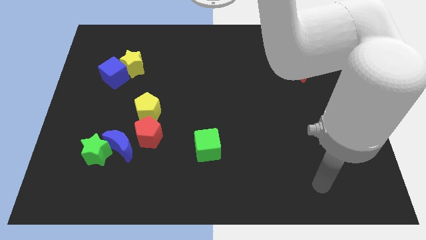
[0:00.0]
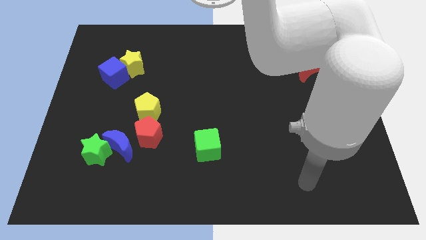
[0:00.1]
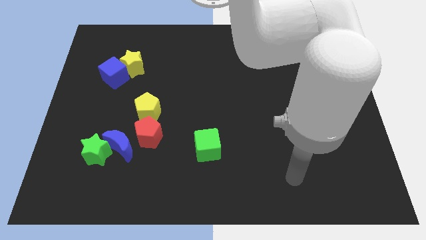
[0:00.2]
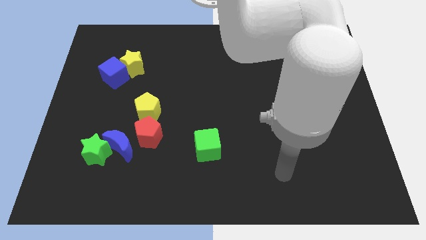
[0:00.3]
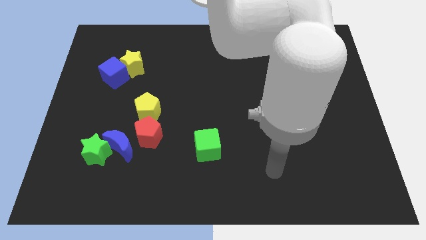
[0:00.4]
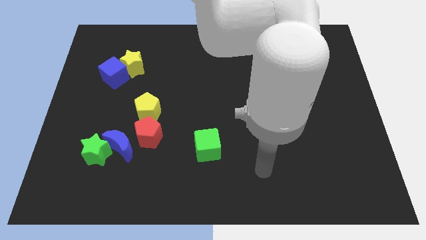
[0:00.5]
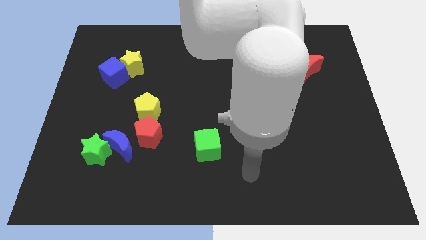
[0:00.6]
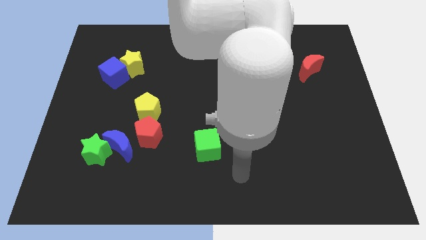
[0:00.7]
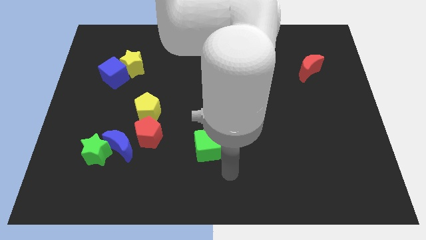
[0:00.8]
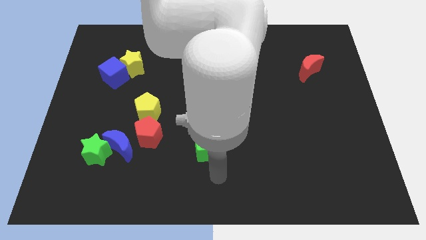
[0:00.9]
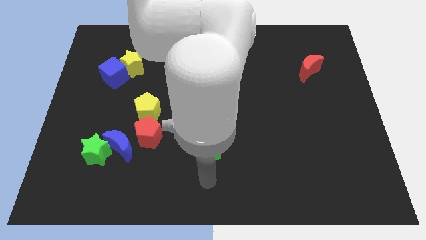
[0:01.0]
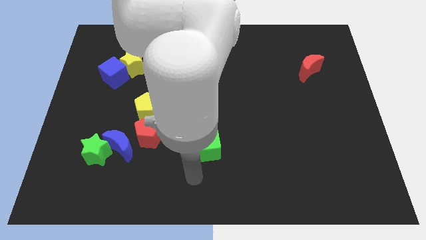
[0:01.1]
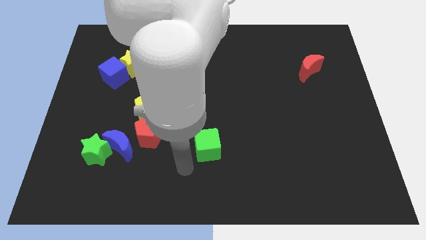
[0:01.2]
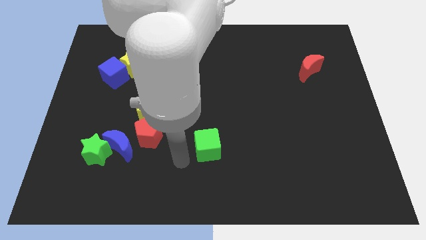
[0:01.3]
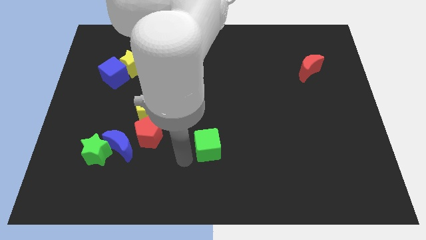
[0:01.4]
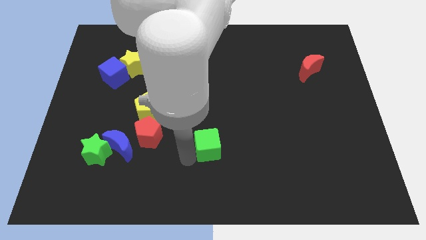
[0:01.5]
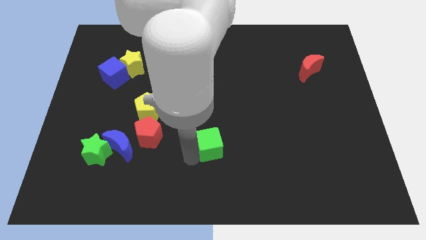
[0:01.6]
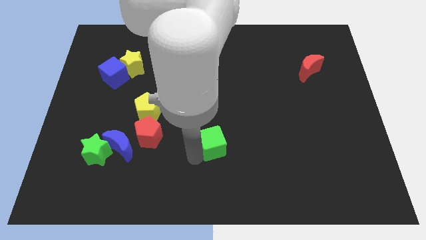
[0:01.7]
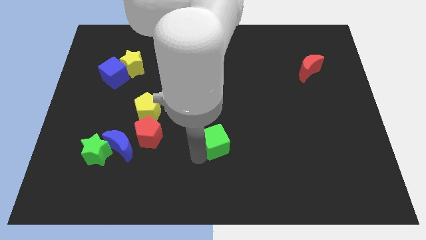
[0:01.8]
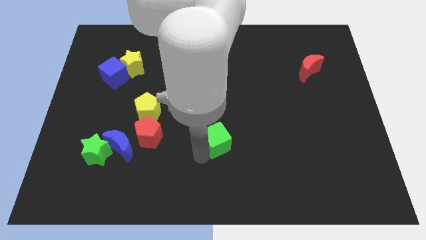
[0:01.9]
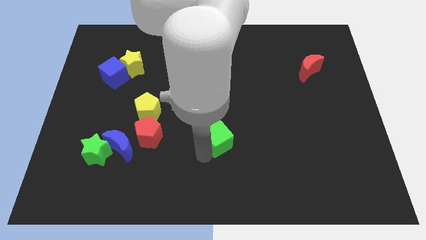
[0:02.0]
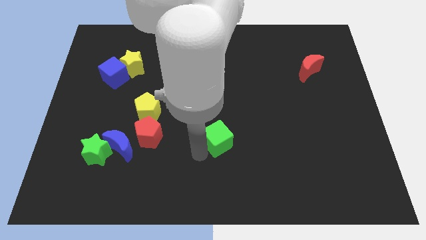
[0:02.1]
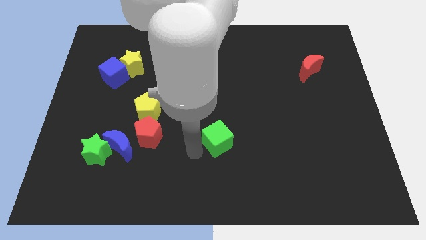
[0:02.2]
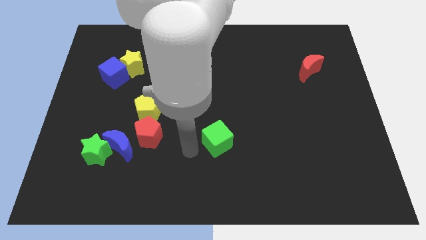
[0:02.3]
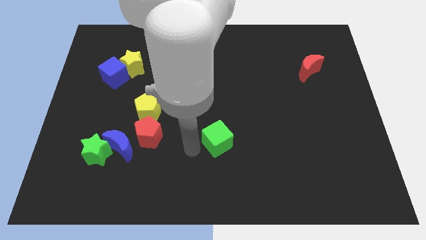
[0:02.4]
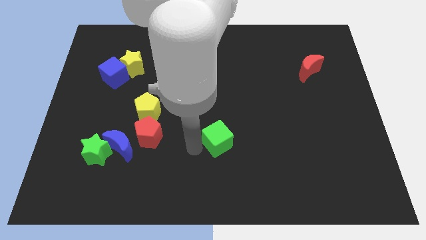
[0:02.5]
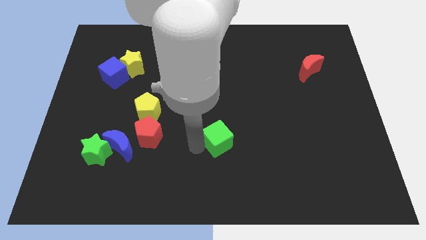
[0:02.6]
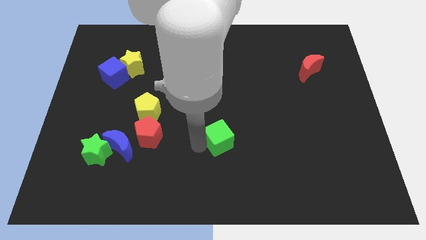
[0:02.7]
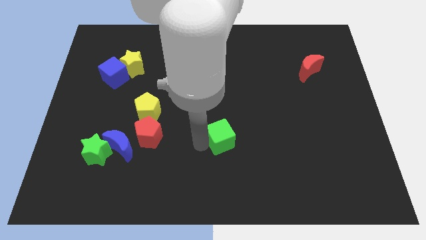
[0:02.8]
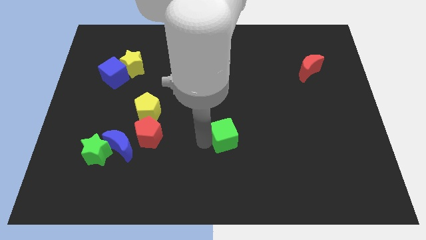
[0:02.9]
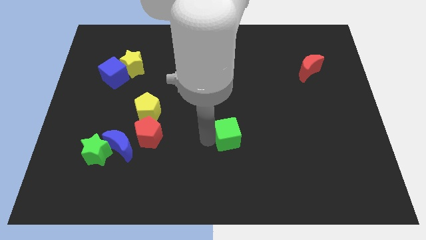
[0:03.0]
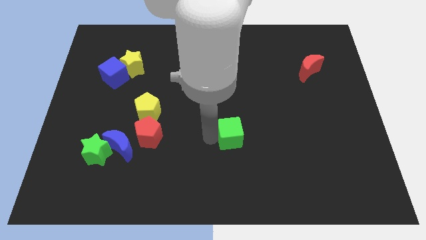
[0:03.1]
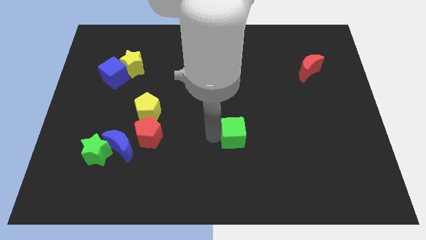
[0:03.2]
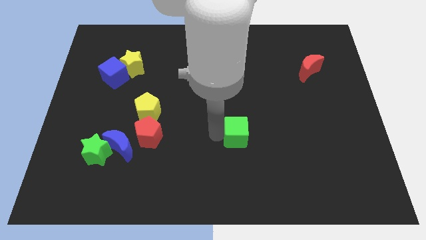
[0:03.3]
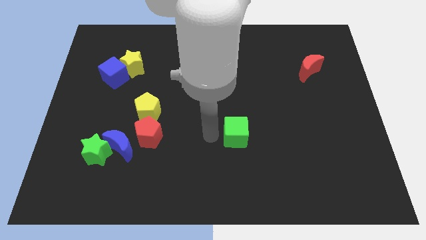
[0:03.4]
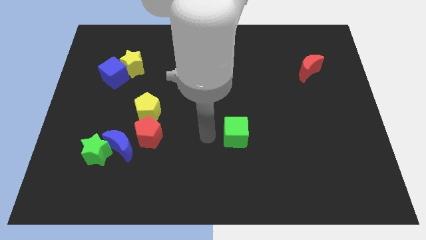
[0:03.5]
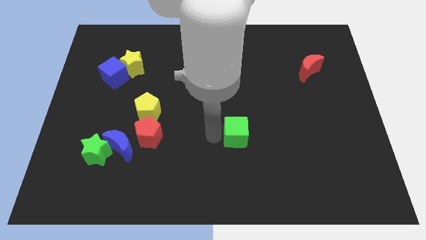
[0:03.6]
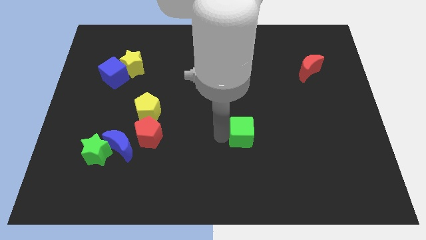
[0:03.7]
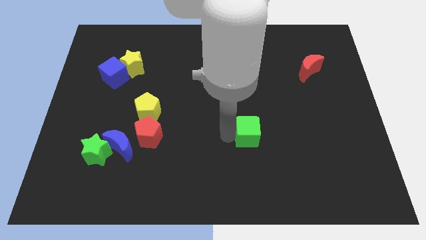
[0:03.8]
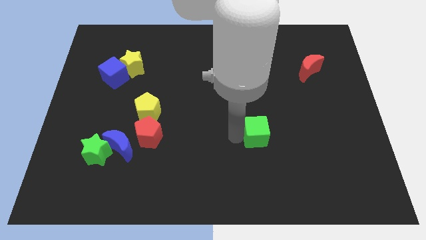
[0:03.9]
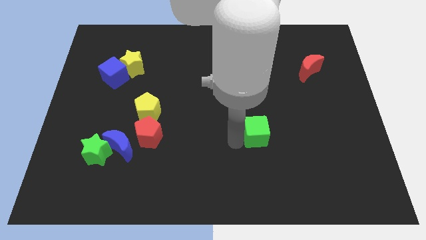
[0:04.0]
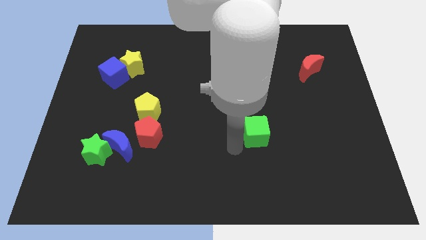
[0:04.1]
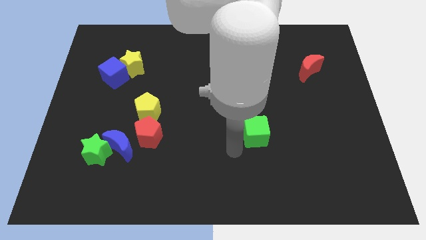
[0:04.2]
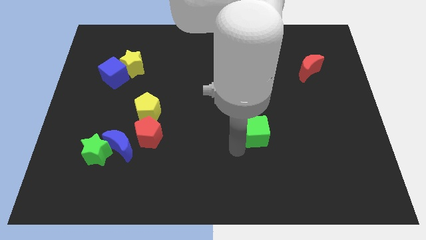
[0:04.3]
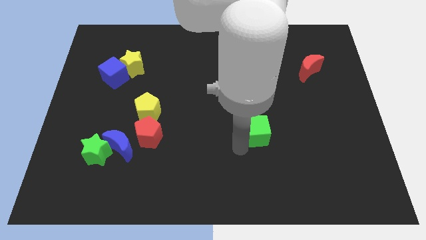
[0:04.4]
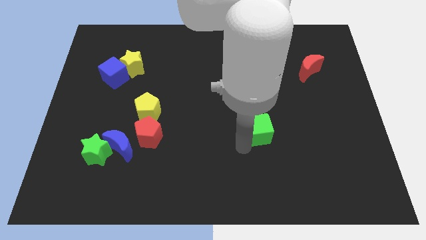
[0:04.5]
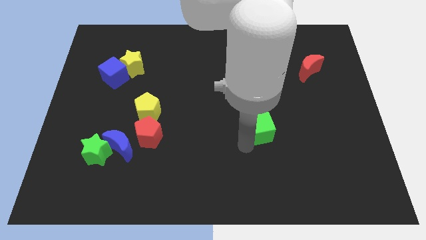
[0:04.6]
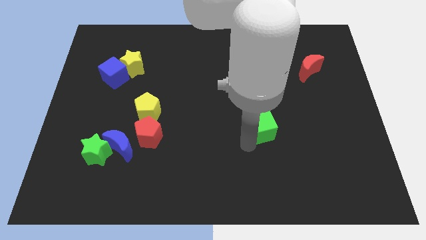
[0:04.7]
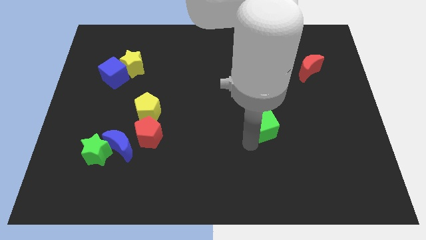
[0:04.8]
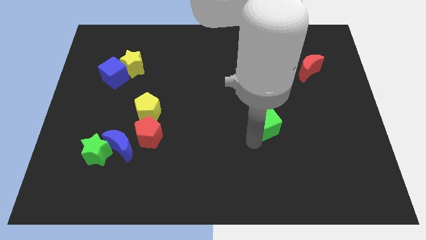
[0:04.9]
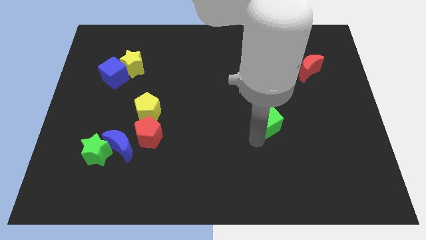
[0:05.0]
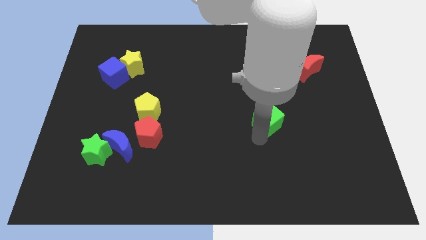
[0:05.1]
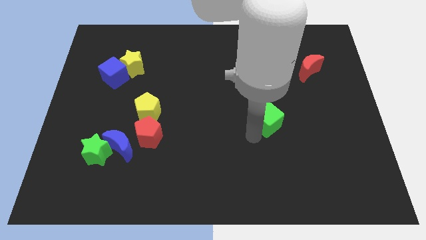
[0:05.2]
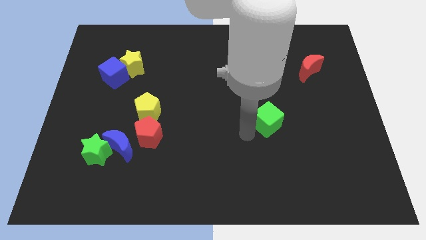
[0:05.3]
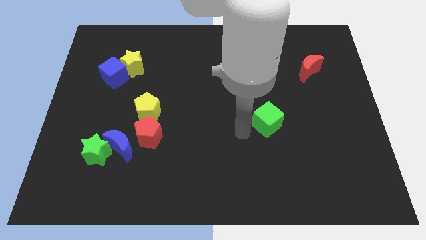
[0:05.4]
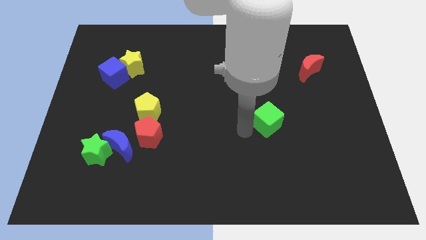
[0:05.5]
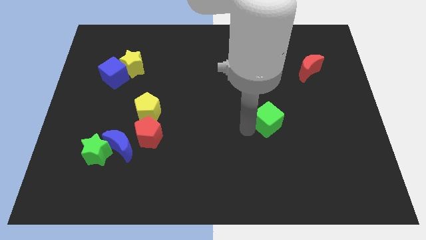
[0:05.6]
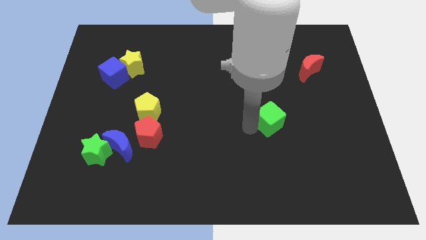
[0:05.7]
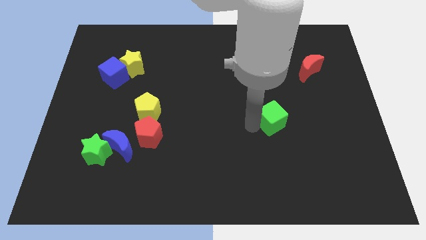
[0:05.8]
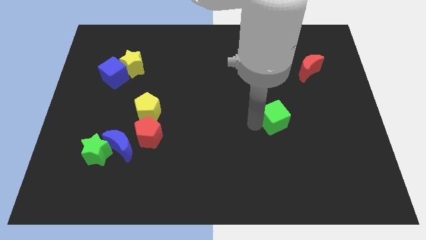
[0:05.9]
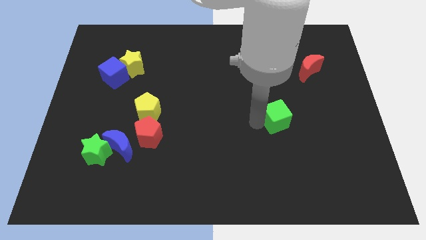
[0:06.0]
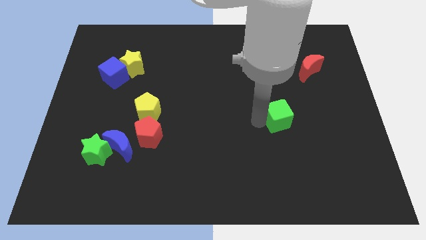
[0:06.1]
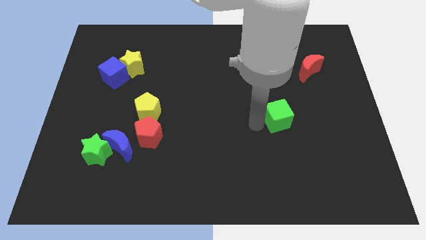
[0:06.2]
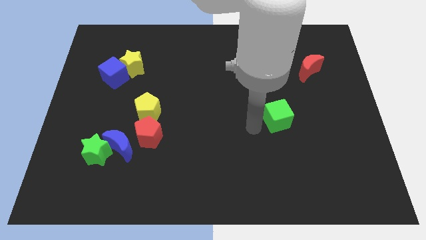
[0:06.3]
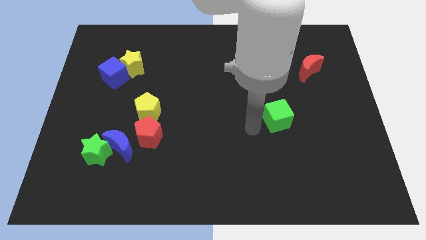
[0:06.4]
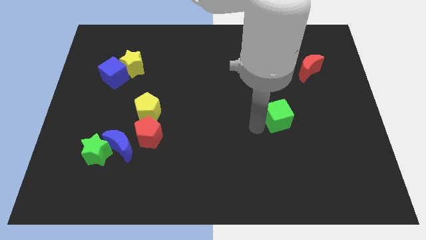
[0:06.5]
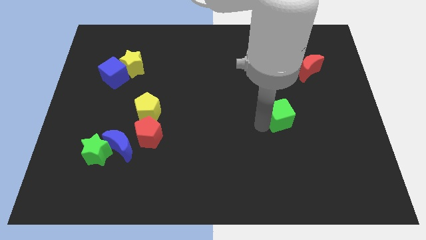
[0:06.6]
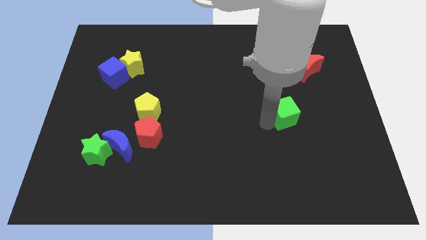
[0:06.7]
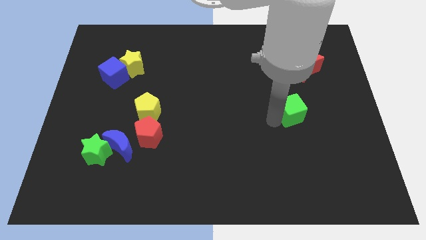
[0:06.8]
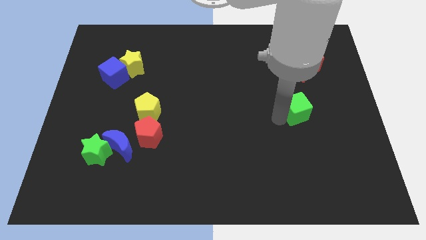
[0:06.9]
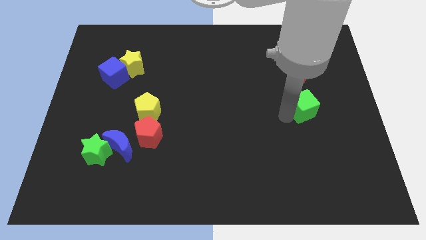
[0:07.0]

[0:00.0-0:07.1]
push the green cube to the bottom of the red moon

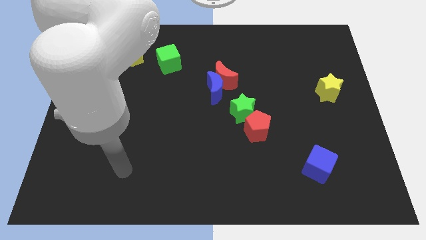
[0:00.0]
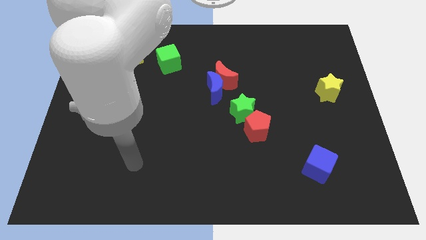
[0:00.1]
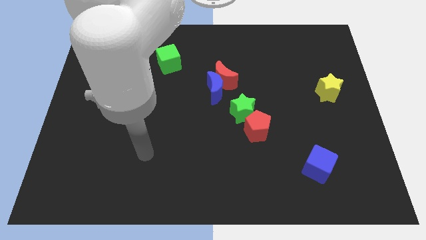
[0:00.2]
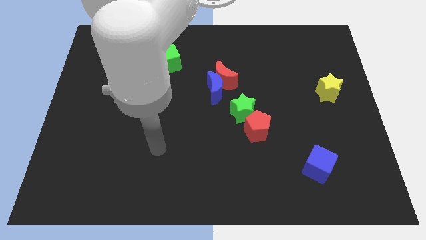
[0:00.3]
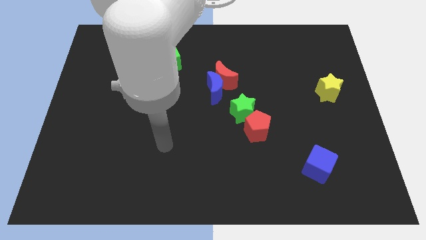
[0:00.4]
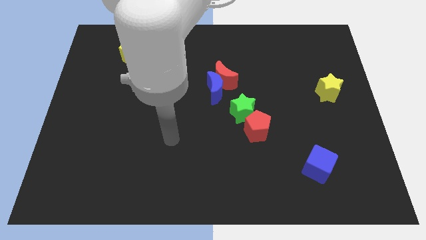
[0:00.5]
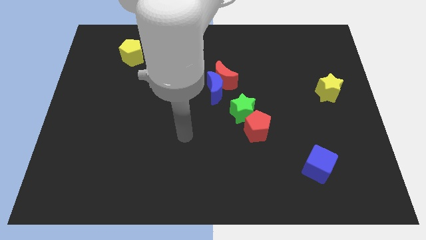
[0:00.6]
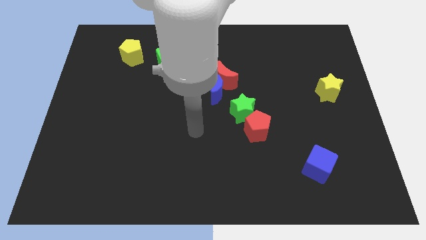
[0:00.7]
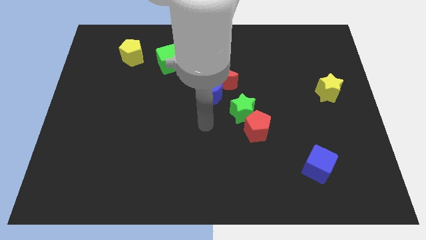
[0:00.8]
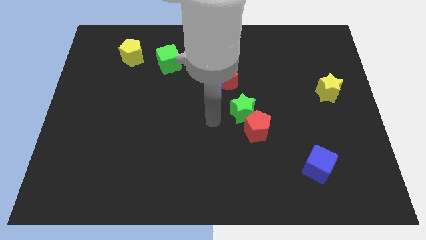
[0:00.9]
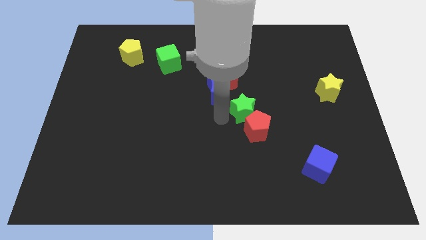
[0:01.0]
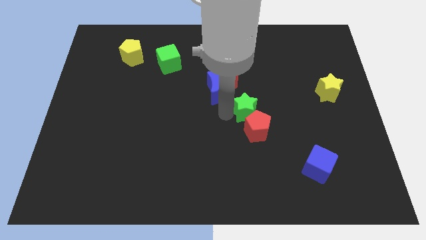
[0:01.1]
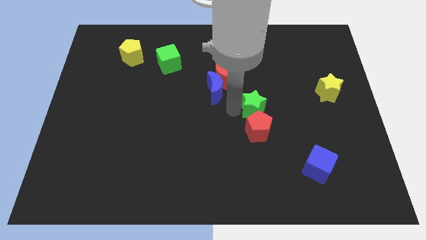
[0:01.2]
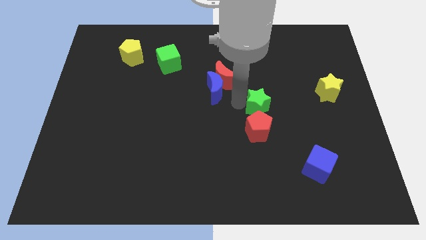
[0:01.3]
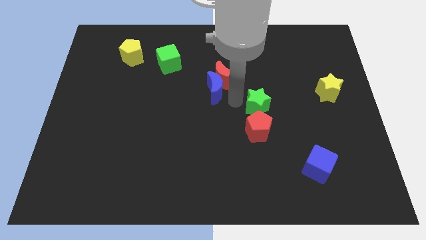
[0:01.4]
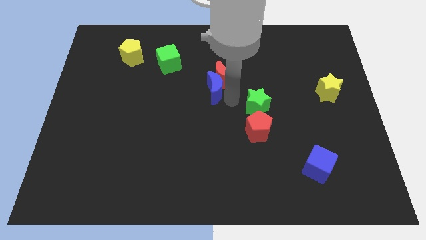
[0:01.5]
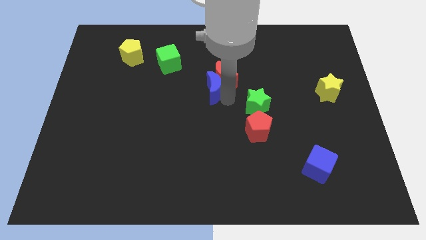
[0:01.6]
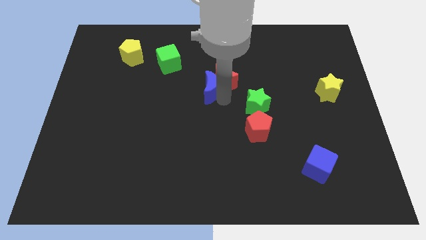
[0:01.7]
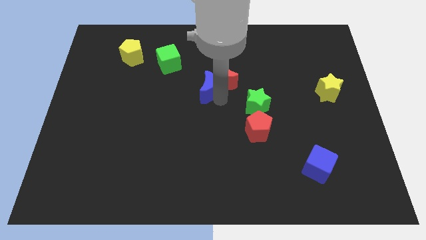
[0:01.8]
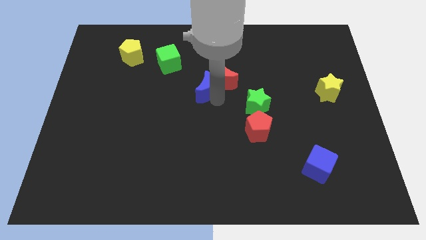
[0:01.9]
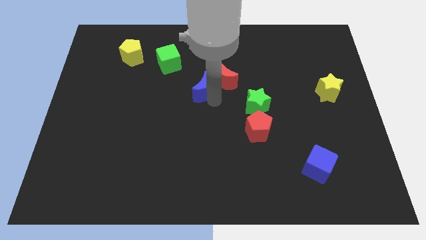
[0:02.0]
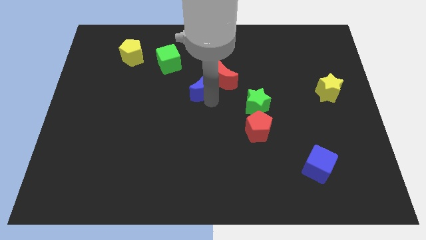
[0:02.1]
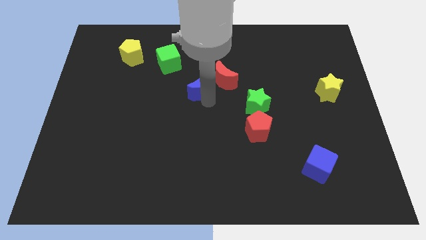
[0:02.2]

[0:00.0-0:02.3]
slide the blue moon diagonally down and to the right of the green cube
